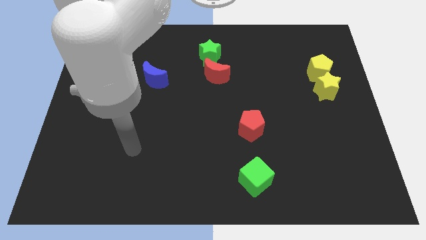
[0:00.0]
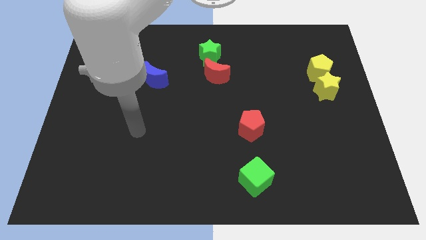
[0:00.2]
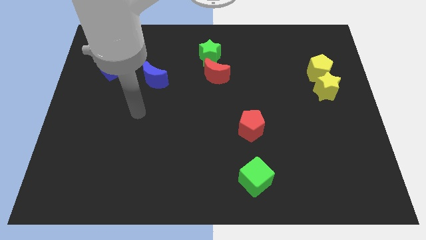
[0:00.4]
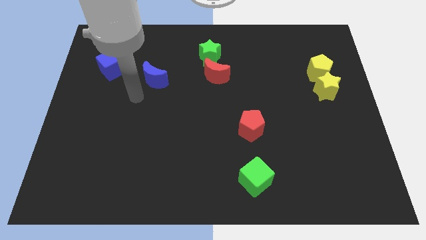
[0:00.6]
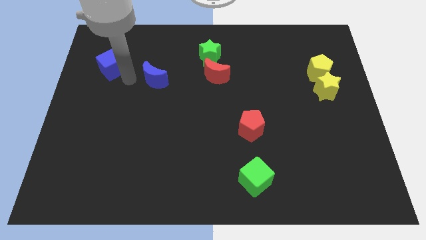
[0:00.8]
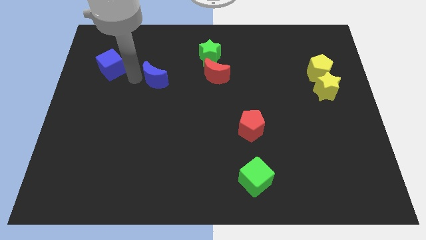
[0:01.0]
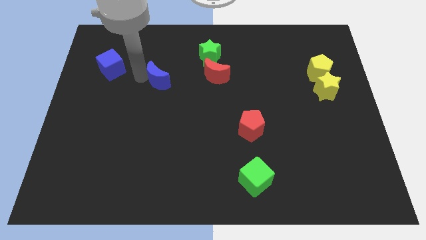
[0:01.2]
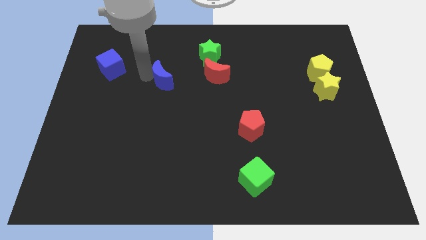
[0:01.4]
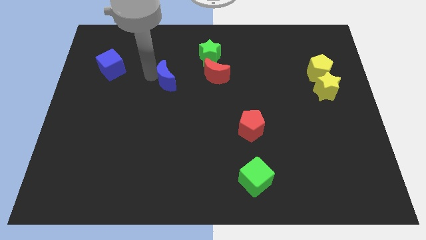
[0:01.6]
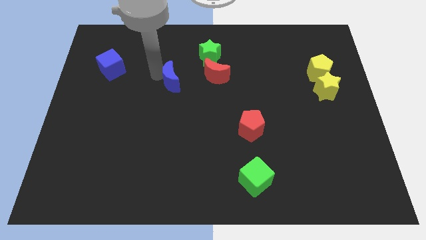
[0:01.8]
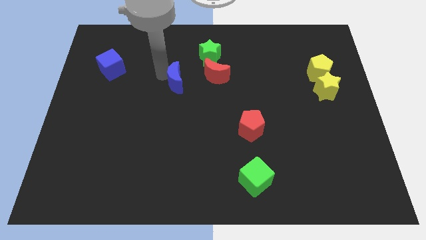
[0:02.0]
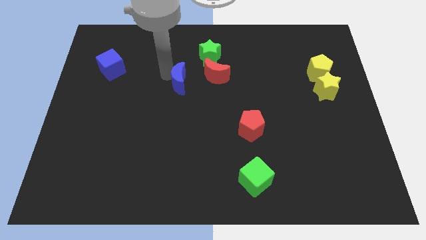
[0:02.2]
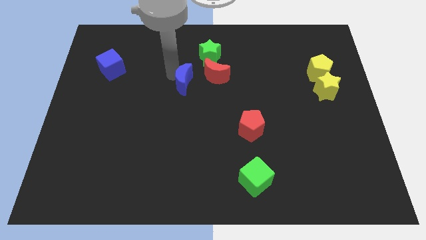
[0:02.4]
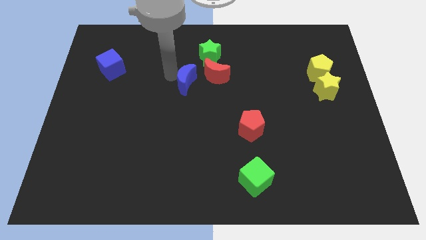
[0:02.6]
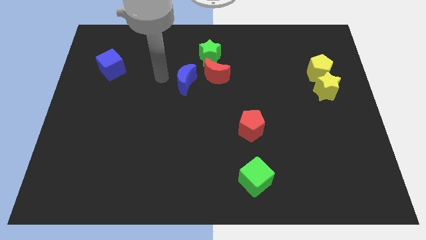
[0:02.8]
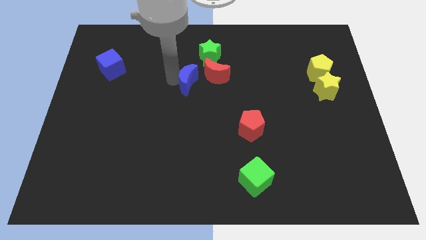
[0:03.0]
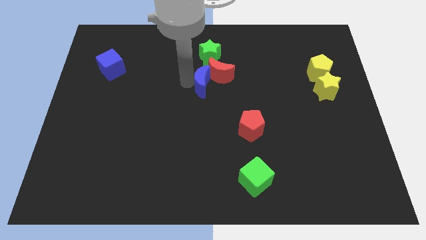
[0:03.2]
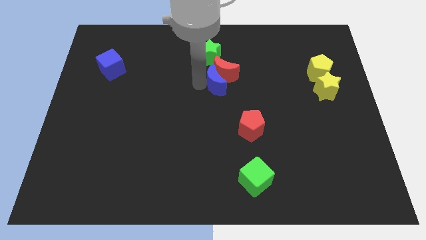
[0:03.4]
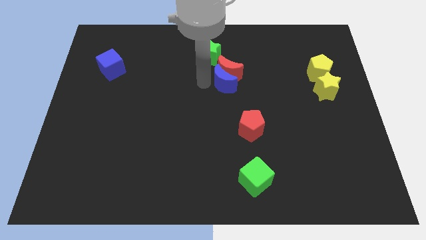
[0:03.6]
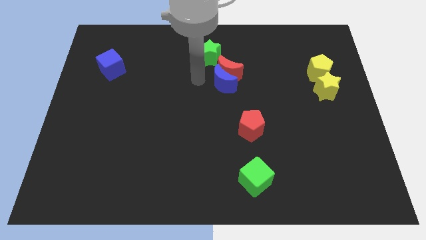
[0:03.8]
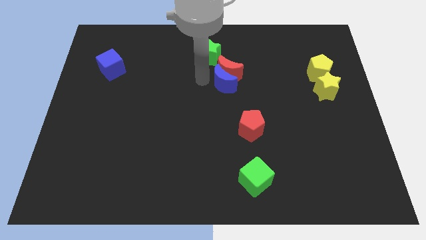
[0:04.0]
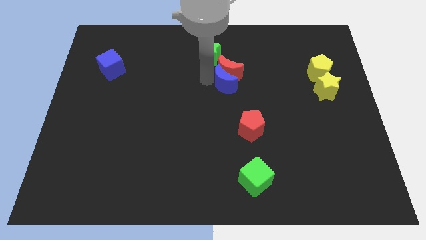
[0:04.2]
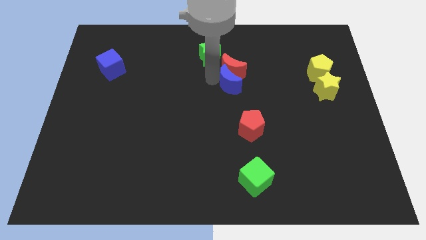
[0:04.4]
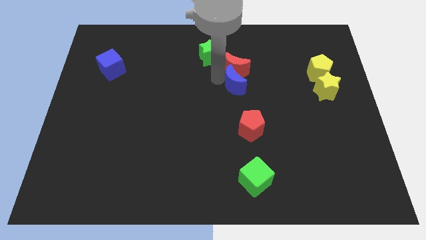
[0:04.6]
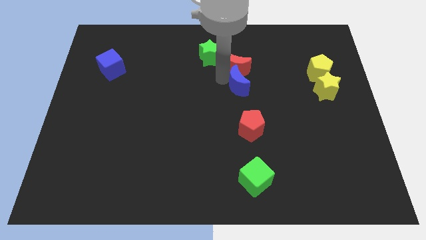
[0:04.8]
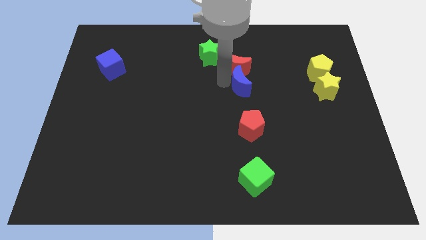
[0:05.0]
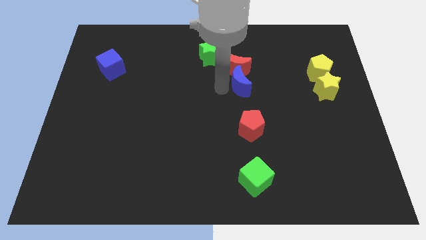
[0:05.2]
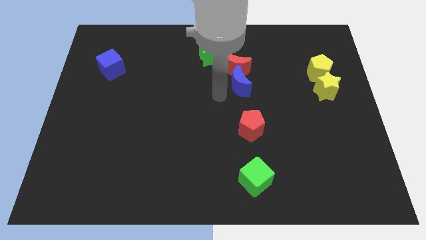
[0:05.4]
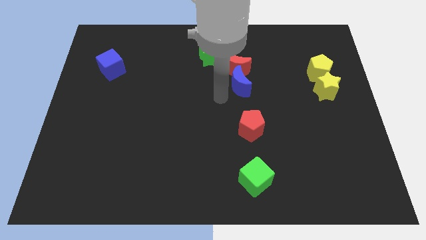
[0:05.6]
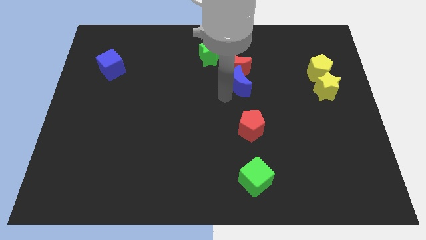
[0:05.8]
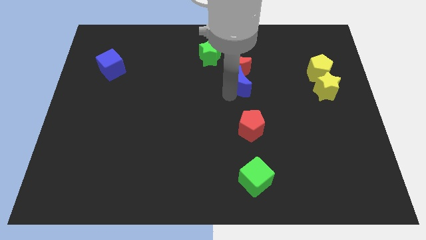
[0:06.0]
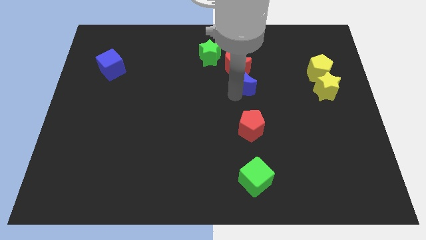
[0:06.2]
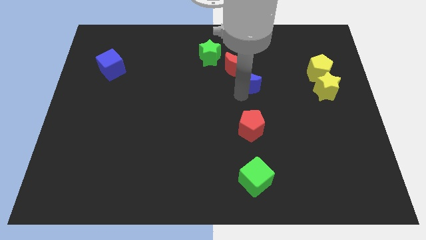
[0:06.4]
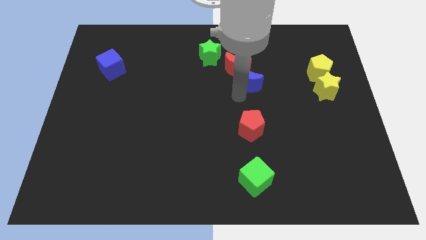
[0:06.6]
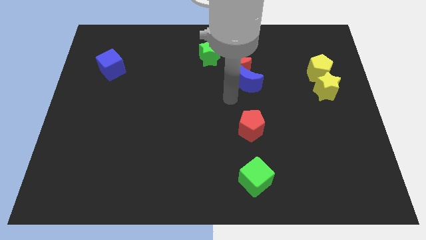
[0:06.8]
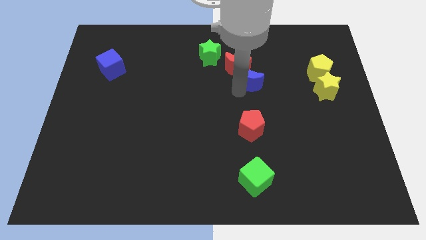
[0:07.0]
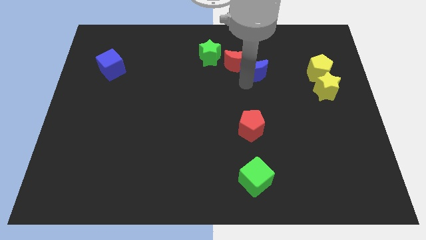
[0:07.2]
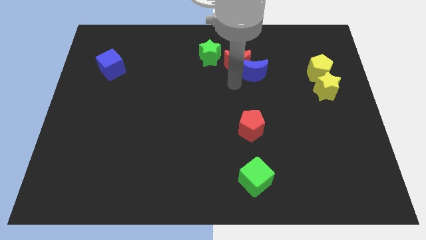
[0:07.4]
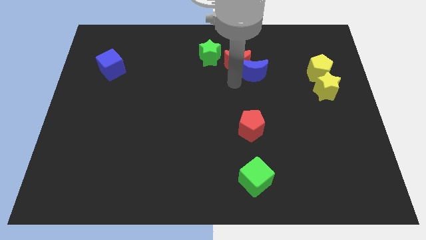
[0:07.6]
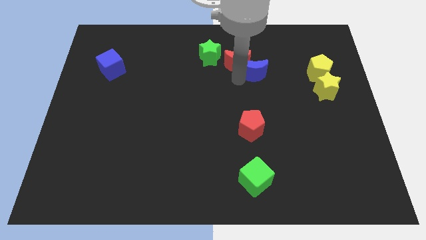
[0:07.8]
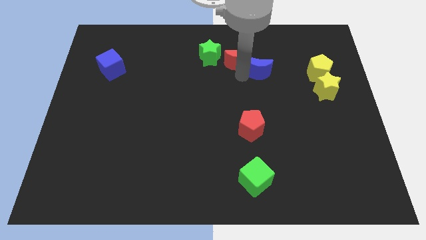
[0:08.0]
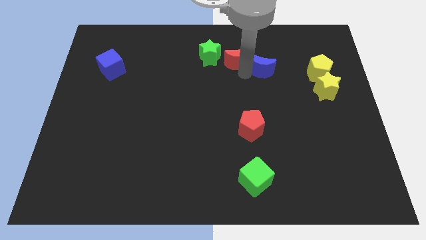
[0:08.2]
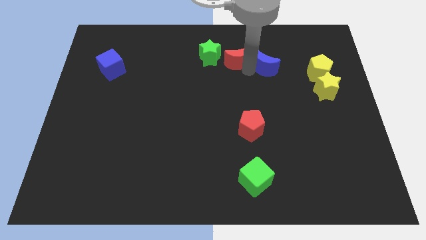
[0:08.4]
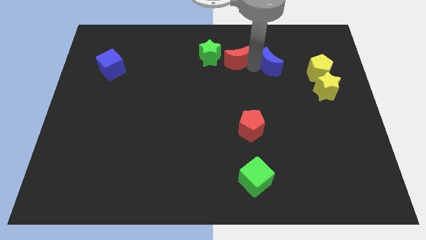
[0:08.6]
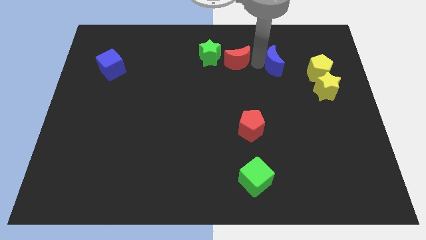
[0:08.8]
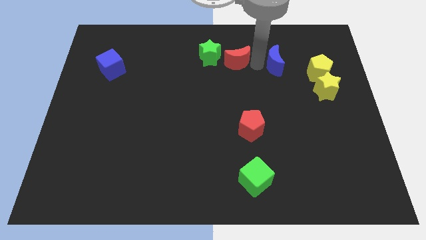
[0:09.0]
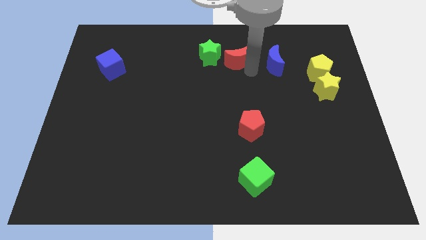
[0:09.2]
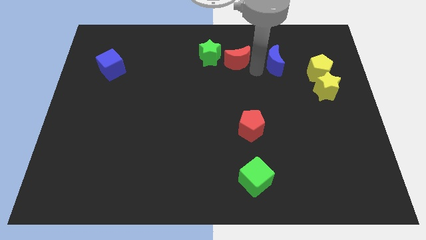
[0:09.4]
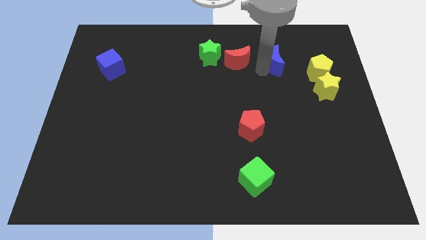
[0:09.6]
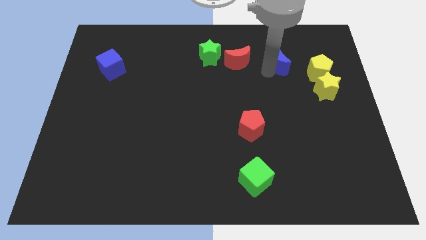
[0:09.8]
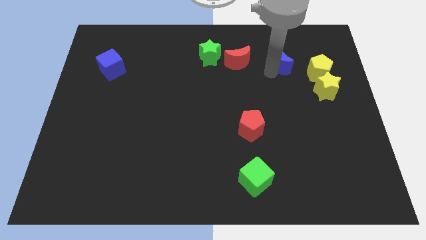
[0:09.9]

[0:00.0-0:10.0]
move the blue moon to the top left of the yellow pentagon

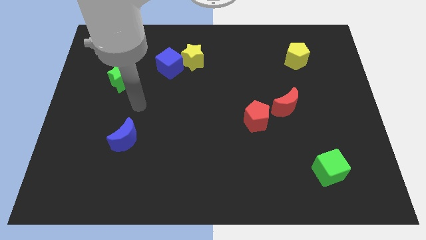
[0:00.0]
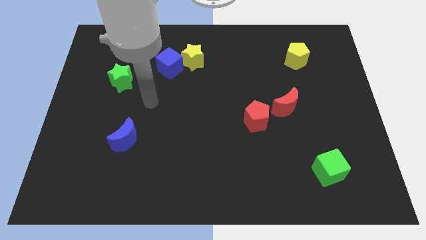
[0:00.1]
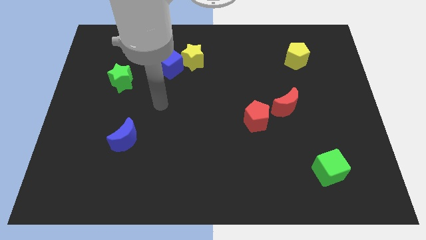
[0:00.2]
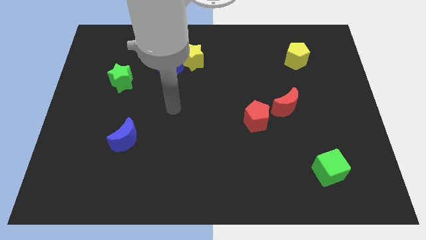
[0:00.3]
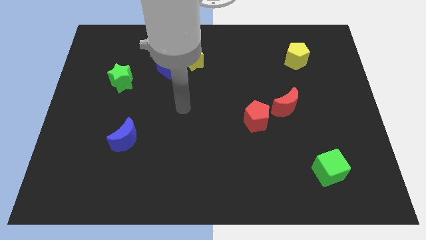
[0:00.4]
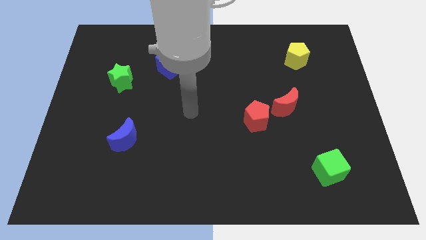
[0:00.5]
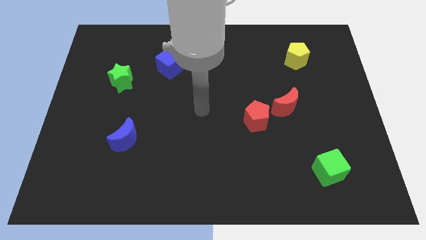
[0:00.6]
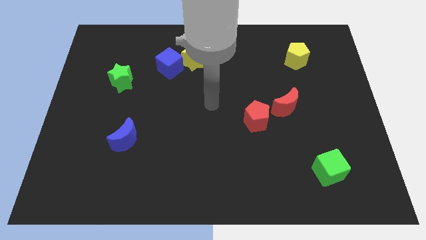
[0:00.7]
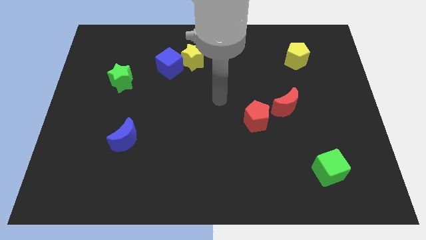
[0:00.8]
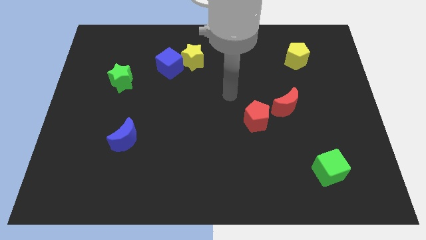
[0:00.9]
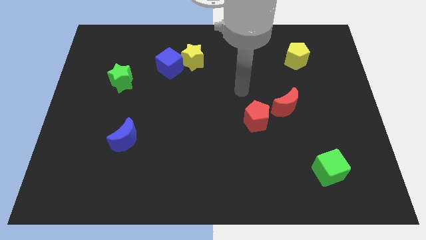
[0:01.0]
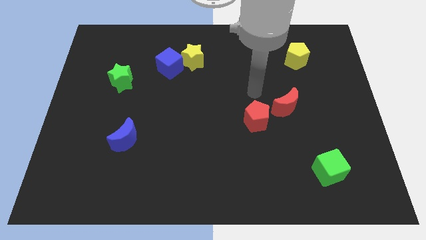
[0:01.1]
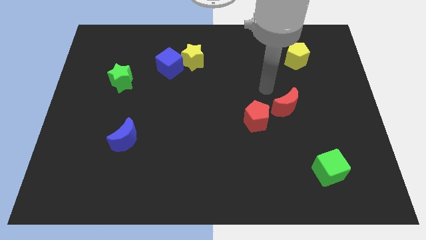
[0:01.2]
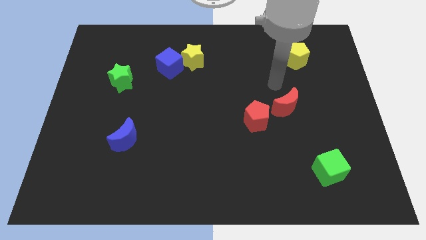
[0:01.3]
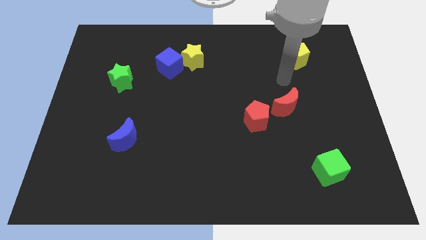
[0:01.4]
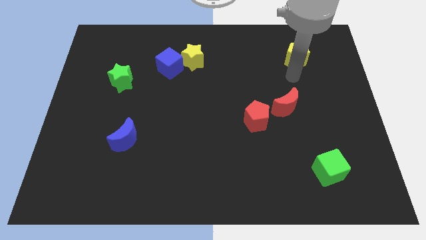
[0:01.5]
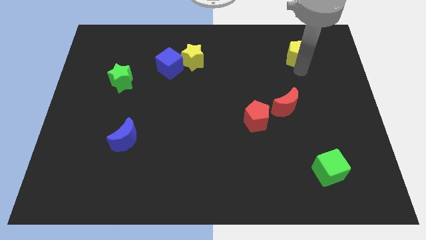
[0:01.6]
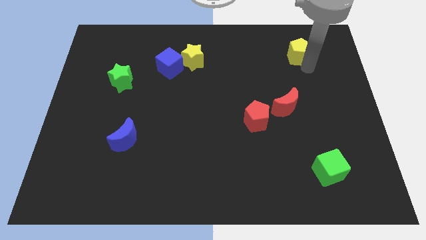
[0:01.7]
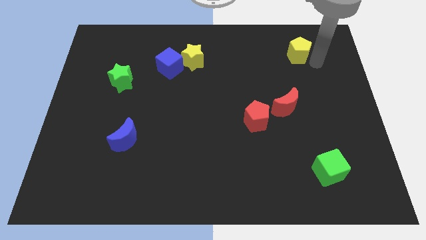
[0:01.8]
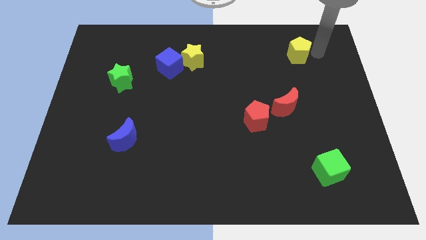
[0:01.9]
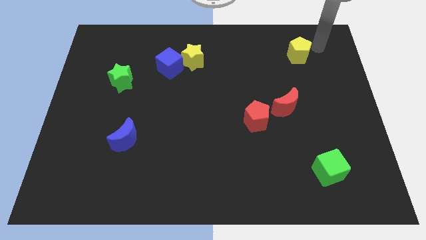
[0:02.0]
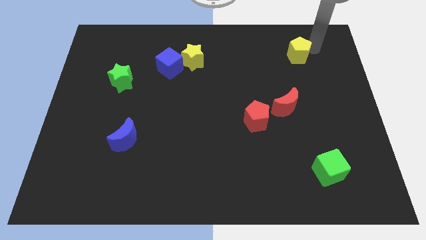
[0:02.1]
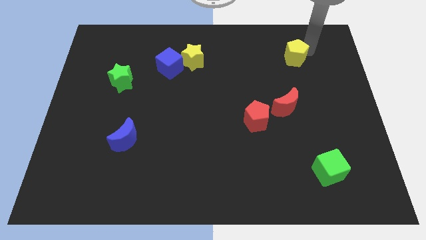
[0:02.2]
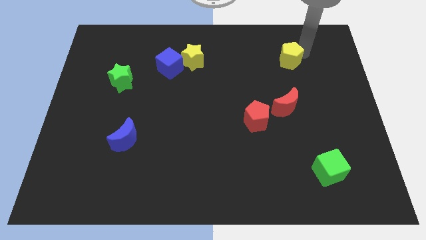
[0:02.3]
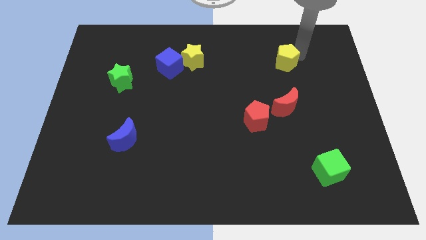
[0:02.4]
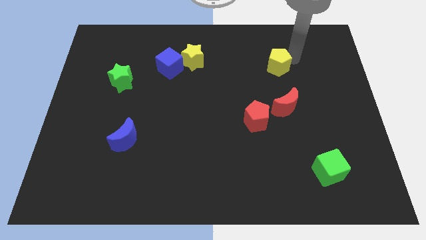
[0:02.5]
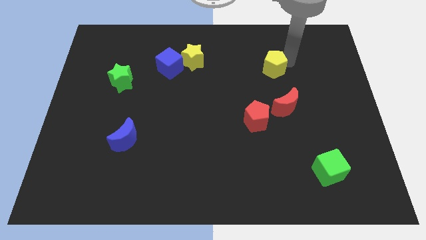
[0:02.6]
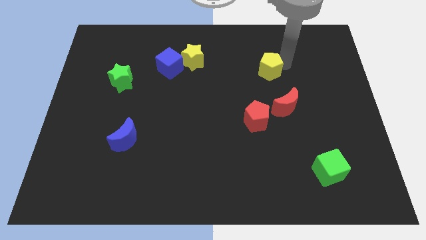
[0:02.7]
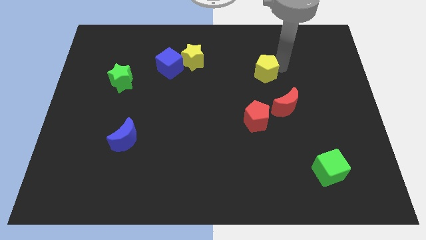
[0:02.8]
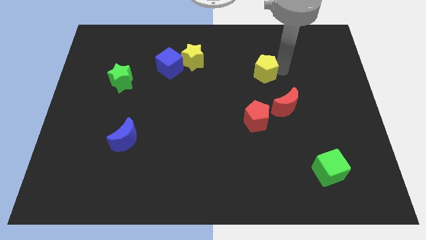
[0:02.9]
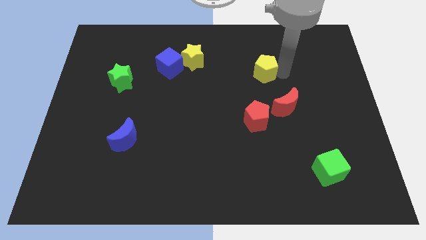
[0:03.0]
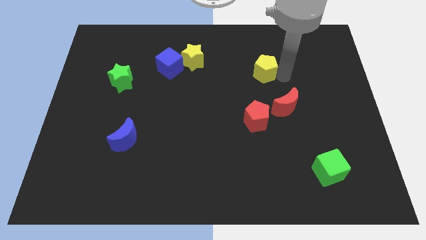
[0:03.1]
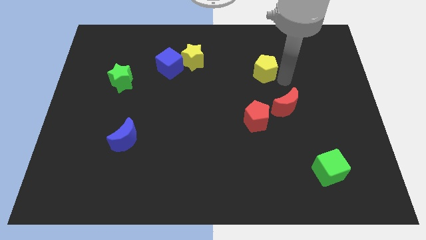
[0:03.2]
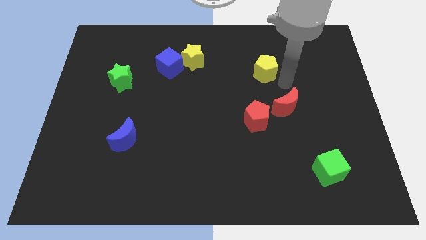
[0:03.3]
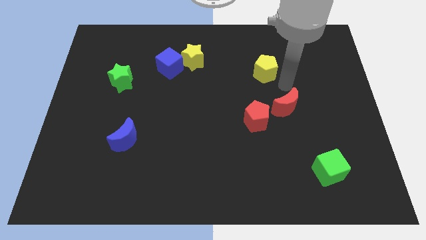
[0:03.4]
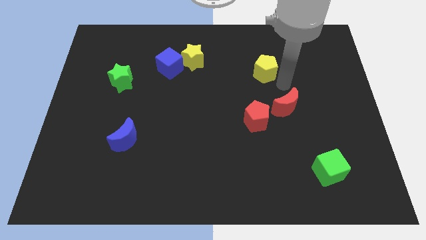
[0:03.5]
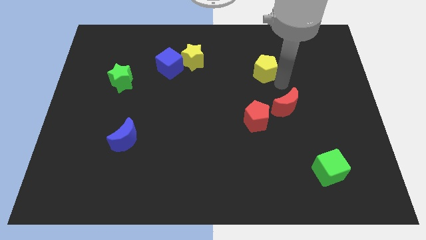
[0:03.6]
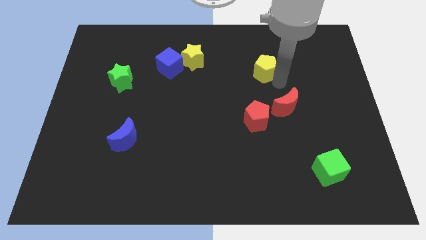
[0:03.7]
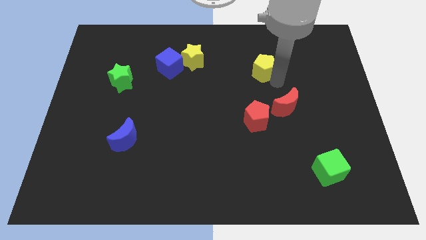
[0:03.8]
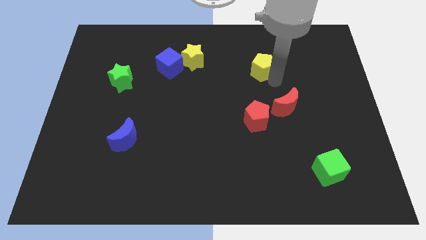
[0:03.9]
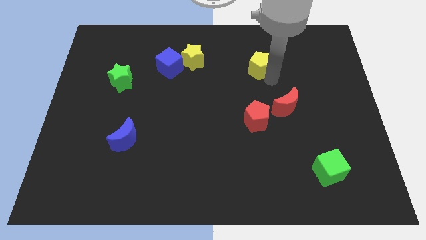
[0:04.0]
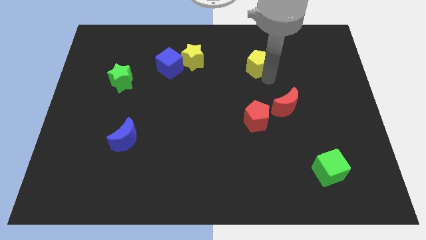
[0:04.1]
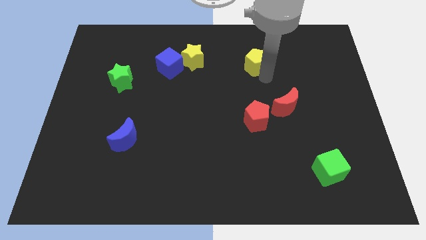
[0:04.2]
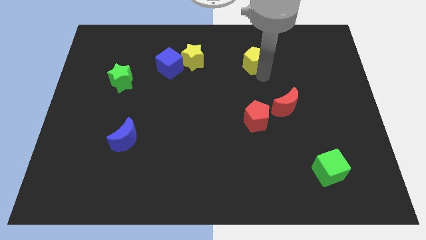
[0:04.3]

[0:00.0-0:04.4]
move the yellow pentagon just right of the yellow star
